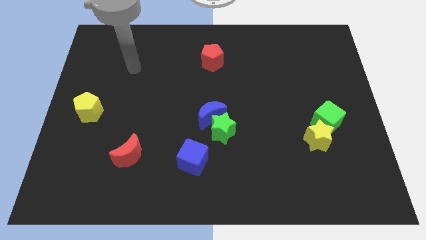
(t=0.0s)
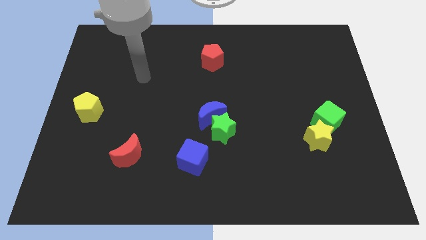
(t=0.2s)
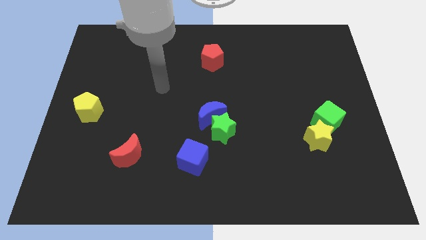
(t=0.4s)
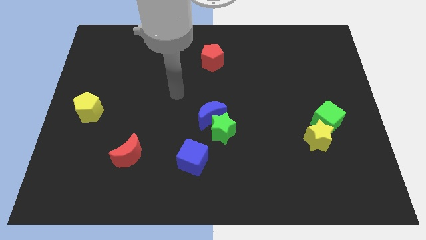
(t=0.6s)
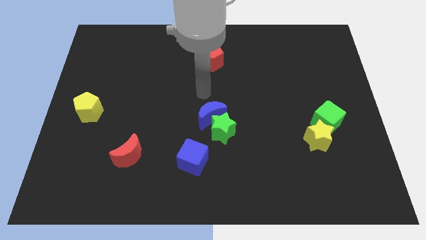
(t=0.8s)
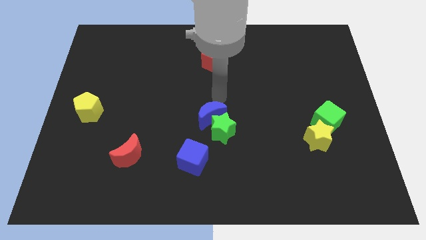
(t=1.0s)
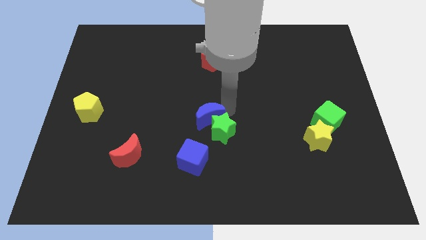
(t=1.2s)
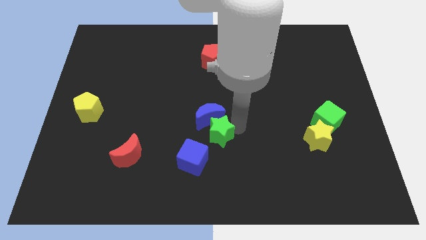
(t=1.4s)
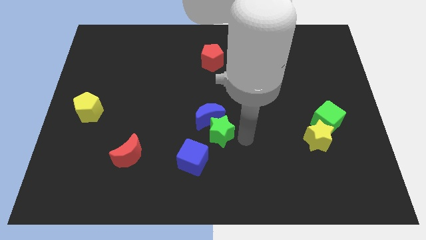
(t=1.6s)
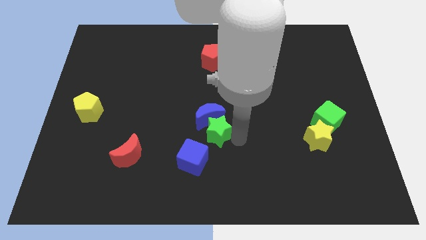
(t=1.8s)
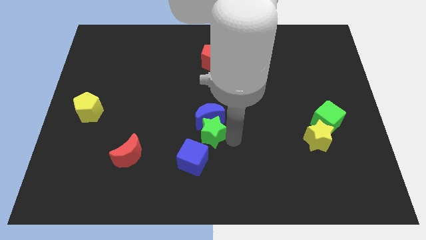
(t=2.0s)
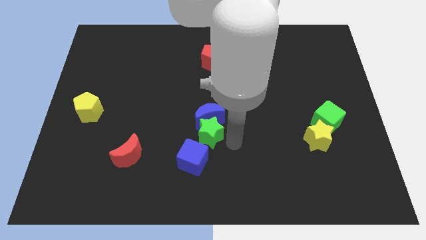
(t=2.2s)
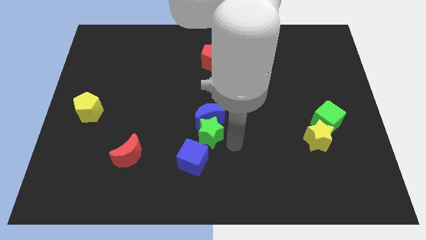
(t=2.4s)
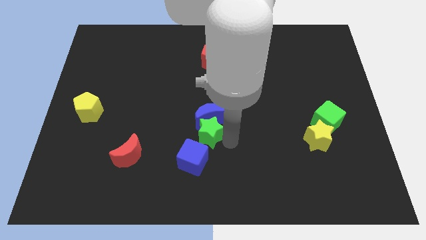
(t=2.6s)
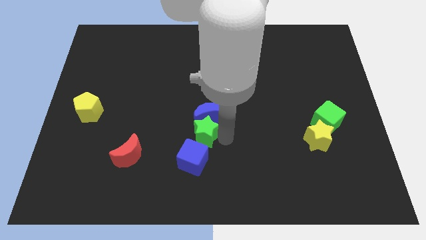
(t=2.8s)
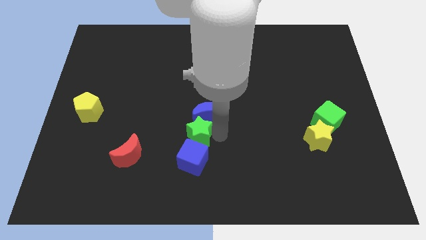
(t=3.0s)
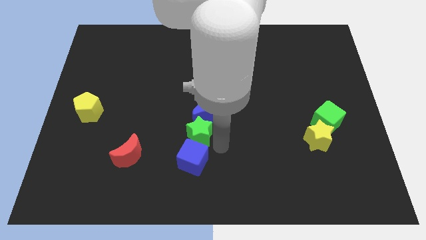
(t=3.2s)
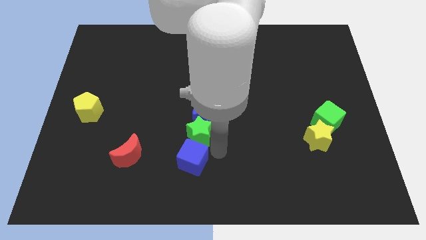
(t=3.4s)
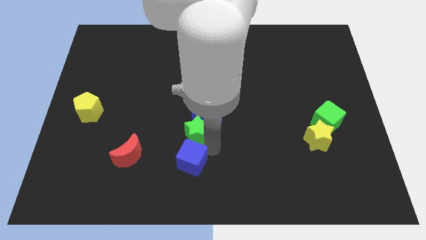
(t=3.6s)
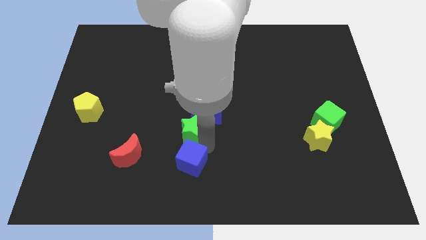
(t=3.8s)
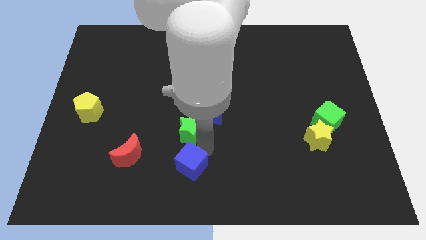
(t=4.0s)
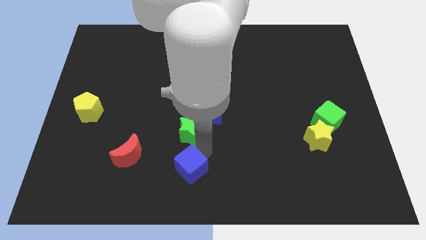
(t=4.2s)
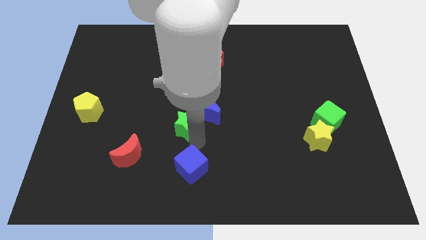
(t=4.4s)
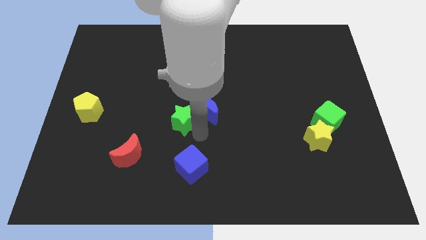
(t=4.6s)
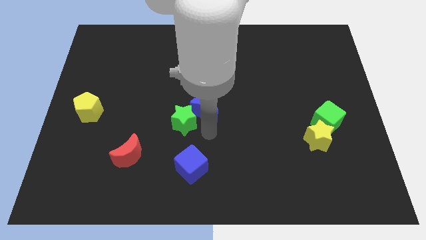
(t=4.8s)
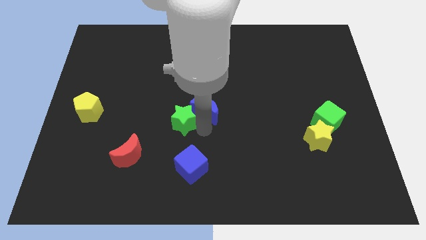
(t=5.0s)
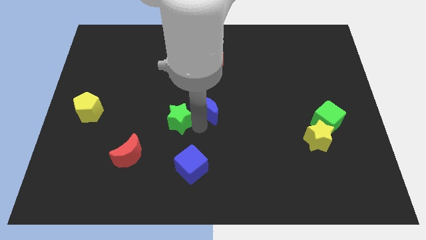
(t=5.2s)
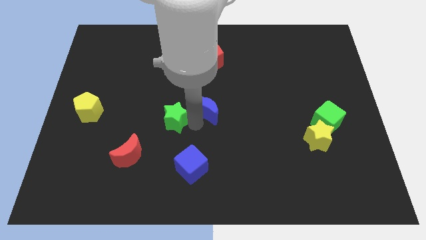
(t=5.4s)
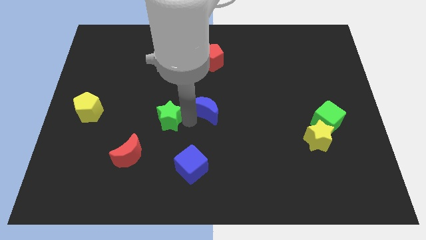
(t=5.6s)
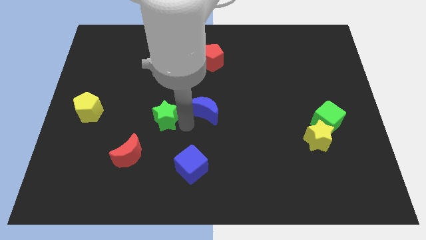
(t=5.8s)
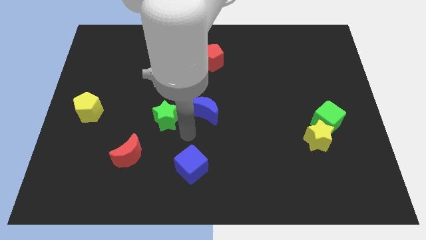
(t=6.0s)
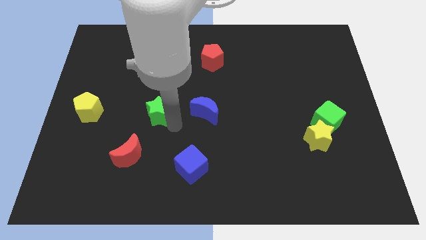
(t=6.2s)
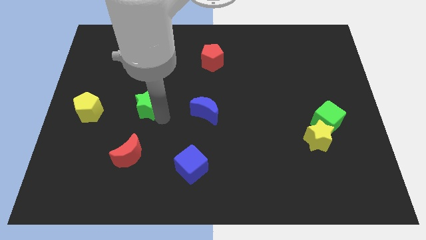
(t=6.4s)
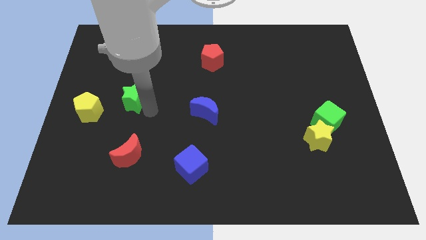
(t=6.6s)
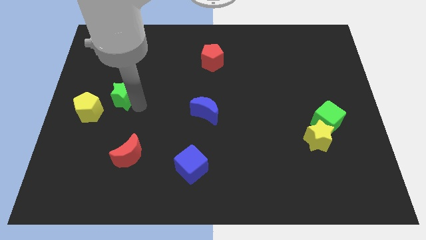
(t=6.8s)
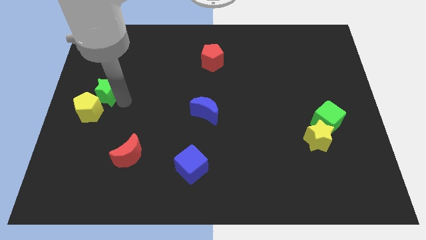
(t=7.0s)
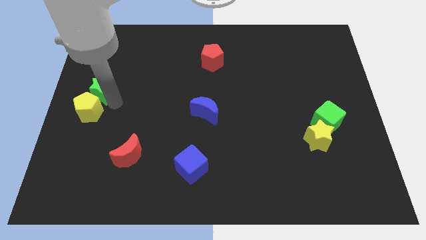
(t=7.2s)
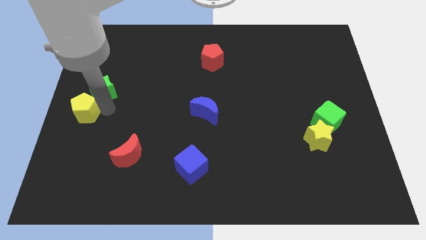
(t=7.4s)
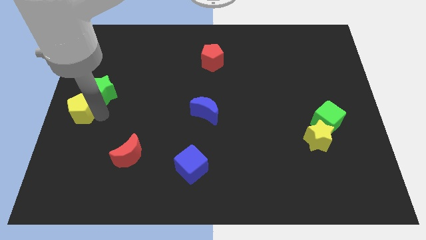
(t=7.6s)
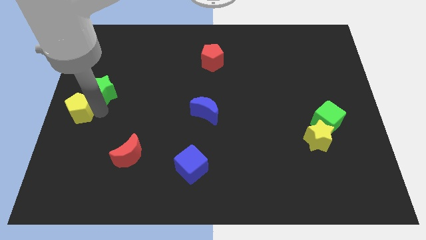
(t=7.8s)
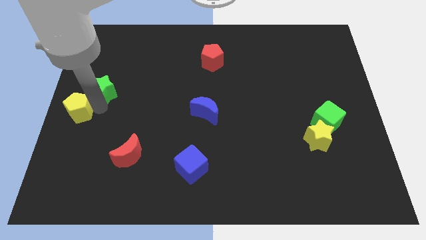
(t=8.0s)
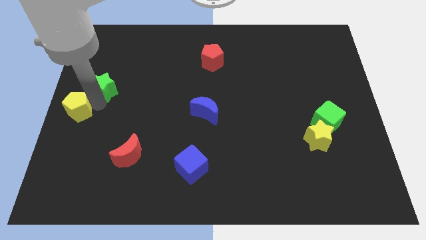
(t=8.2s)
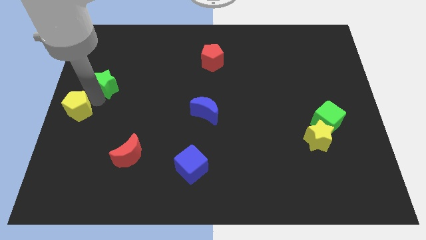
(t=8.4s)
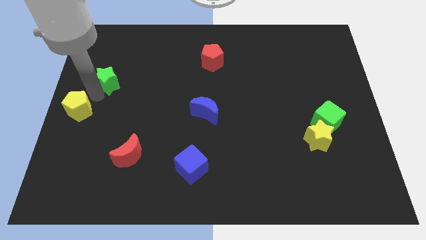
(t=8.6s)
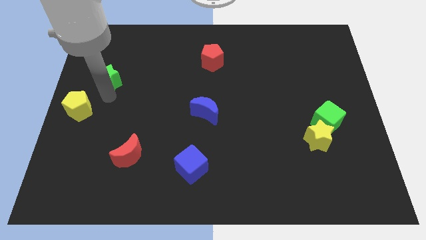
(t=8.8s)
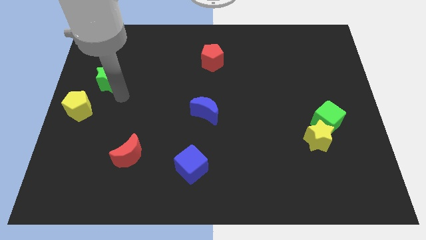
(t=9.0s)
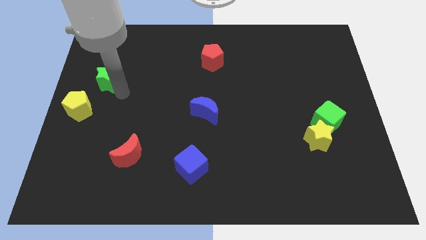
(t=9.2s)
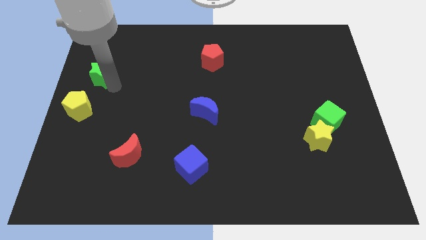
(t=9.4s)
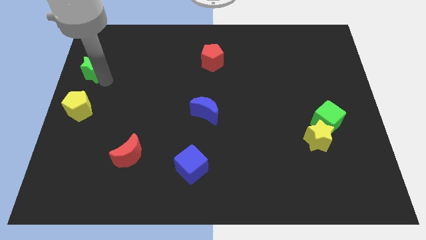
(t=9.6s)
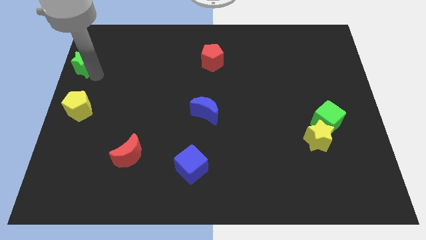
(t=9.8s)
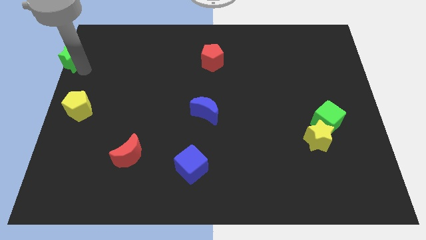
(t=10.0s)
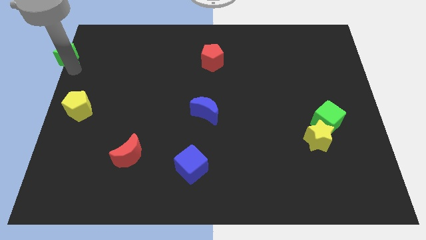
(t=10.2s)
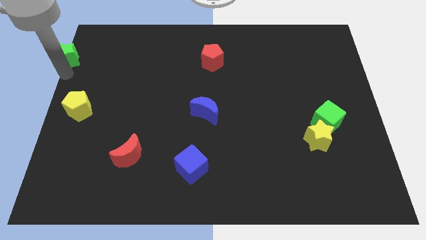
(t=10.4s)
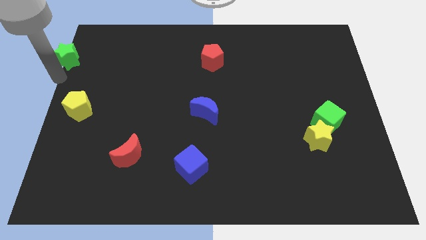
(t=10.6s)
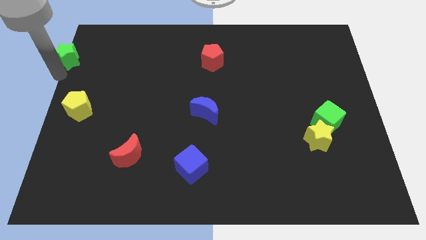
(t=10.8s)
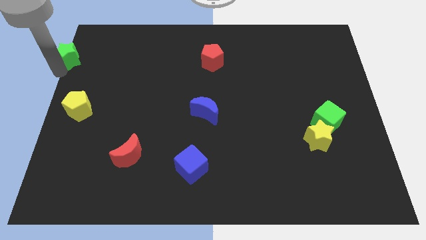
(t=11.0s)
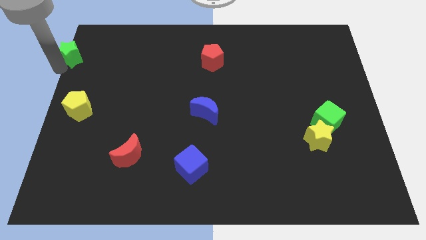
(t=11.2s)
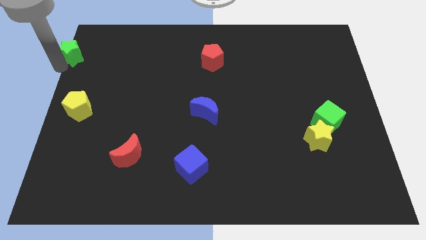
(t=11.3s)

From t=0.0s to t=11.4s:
put the green star to the top left

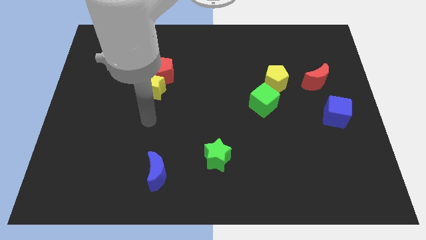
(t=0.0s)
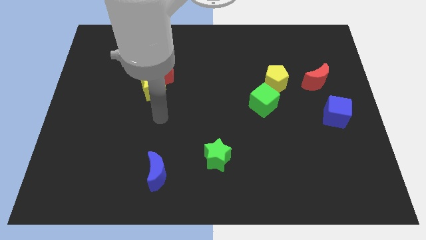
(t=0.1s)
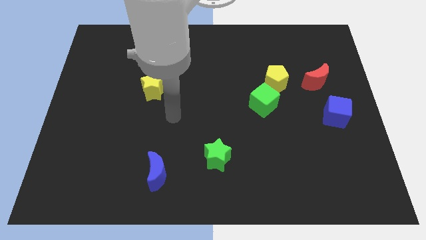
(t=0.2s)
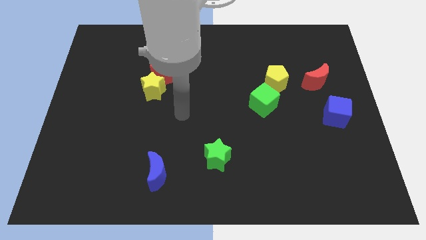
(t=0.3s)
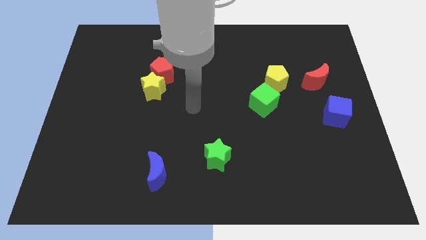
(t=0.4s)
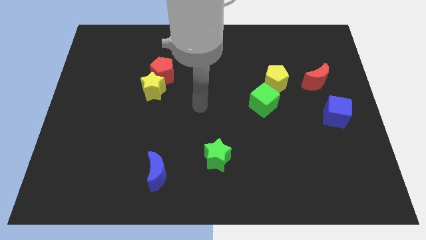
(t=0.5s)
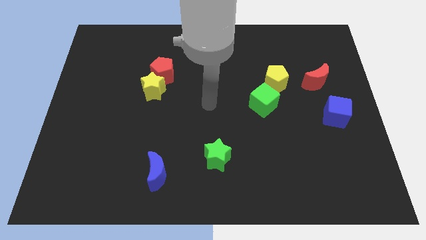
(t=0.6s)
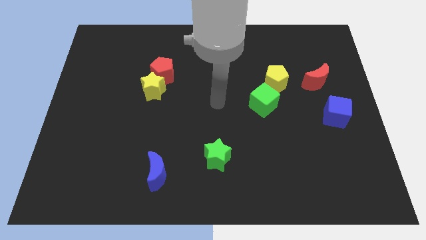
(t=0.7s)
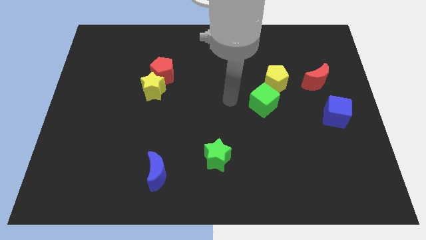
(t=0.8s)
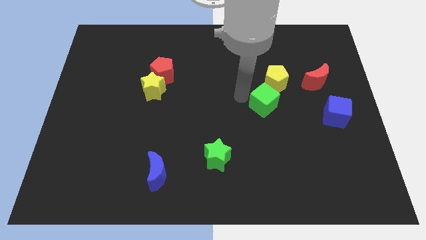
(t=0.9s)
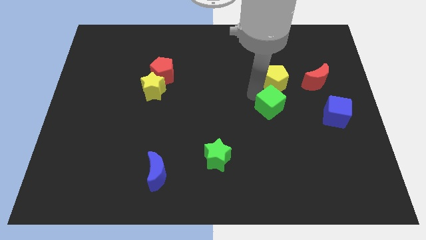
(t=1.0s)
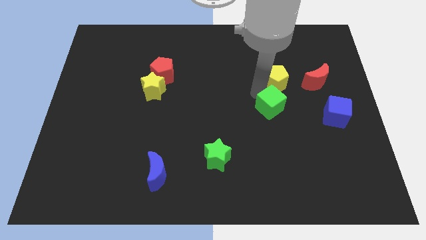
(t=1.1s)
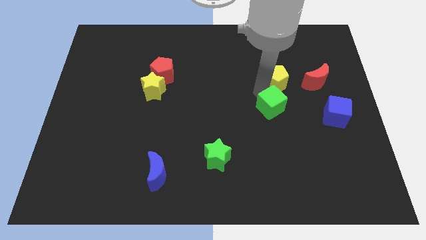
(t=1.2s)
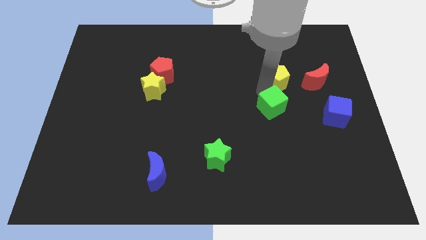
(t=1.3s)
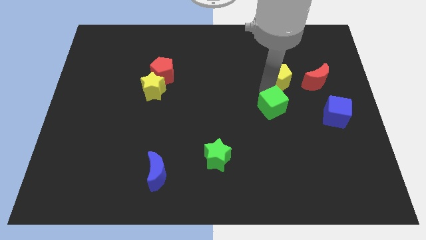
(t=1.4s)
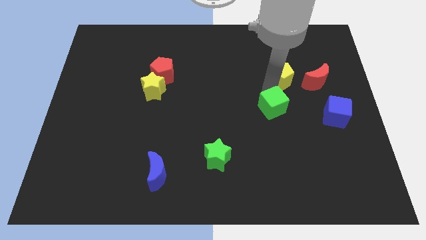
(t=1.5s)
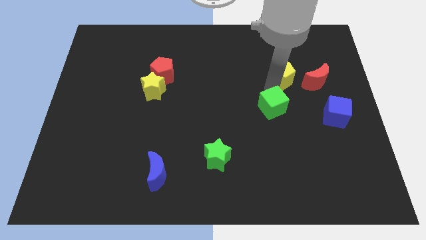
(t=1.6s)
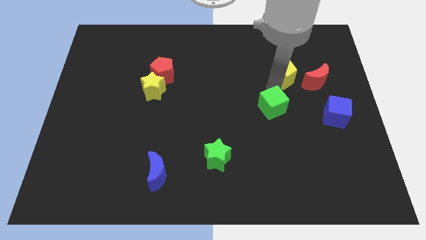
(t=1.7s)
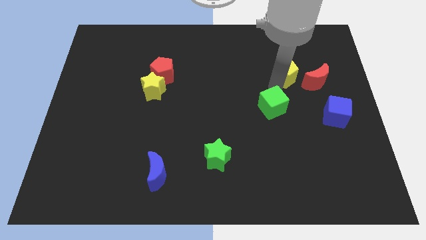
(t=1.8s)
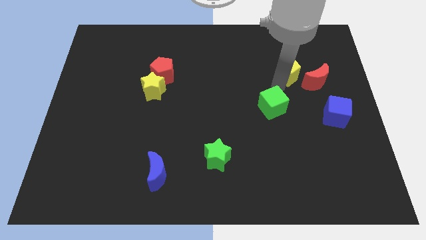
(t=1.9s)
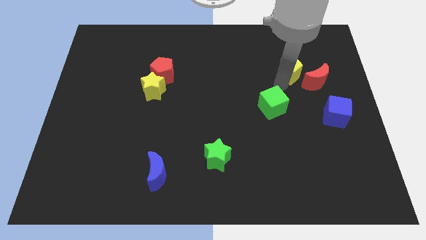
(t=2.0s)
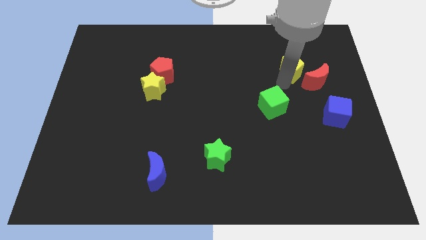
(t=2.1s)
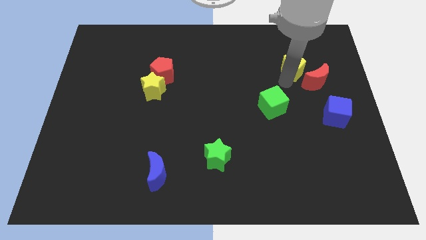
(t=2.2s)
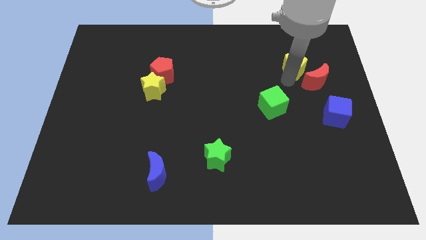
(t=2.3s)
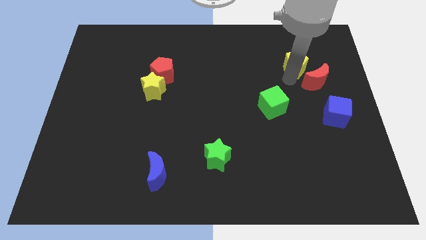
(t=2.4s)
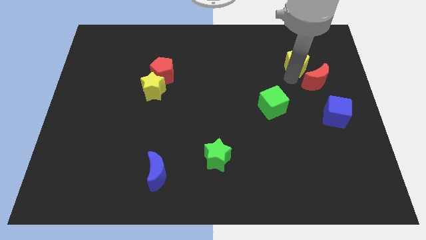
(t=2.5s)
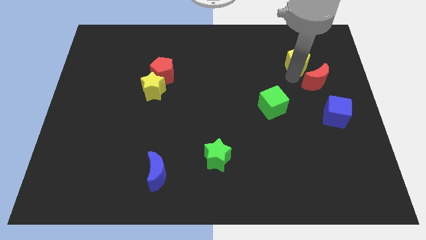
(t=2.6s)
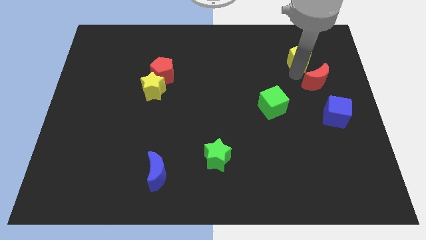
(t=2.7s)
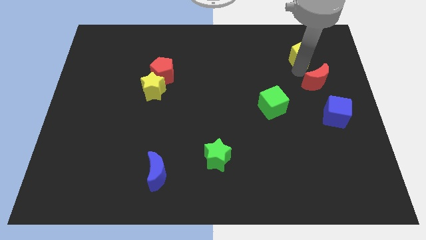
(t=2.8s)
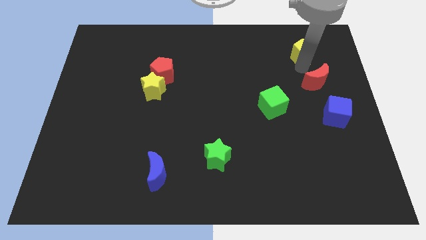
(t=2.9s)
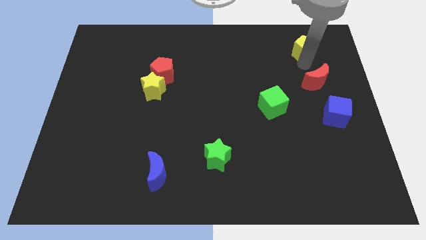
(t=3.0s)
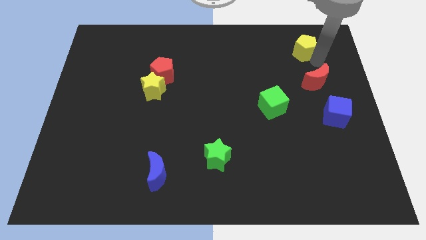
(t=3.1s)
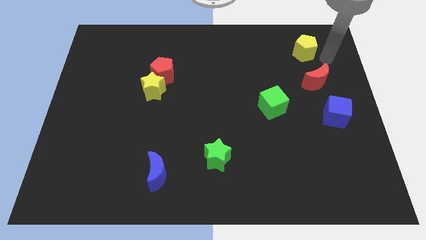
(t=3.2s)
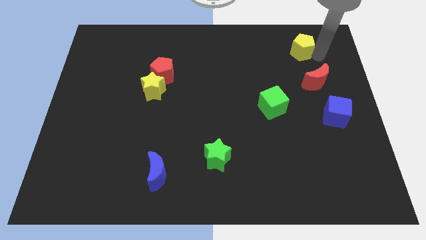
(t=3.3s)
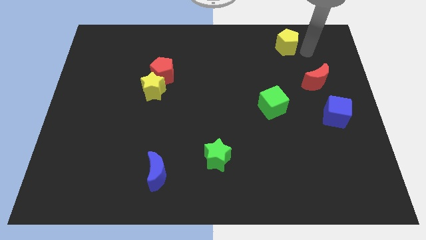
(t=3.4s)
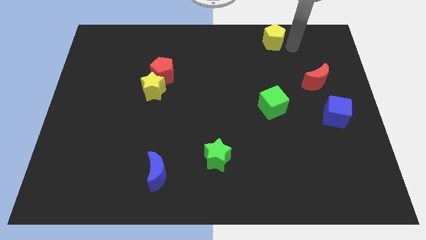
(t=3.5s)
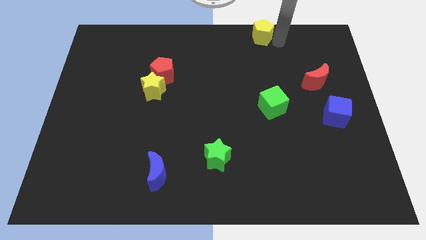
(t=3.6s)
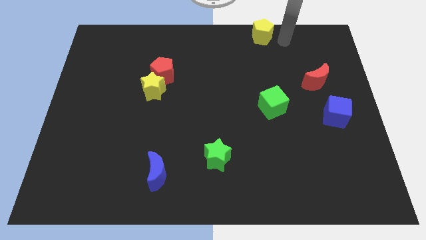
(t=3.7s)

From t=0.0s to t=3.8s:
move the yellow pentagon to the towards your base
